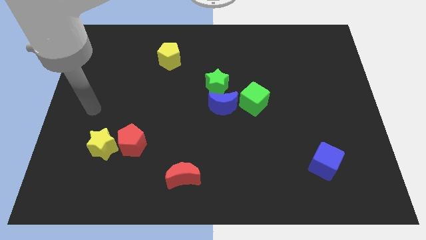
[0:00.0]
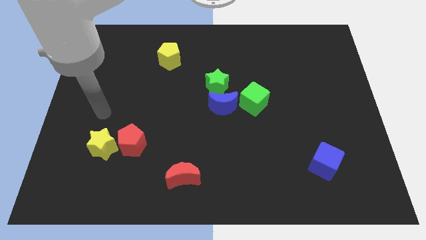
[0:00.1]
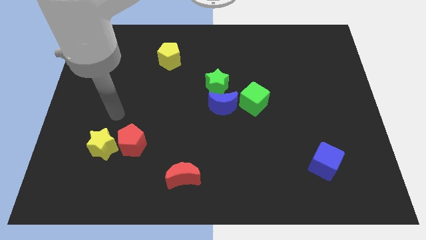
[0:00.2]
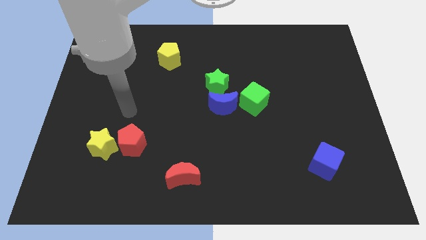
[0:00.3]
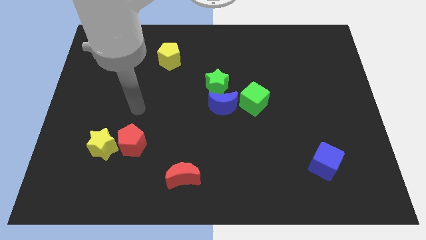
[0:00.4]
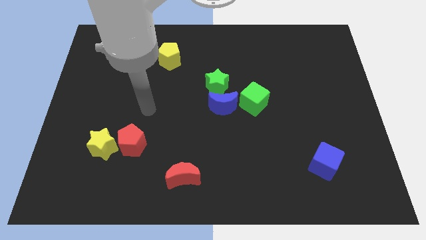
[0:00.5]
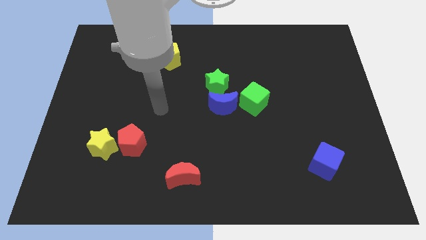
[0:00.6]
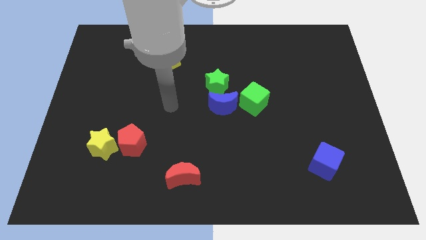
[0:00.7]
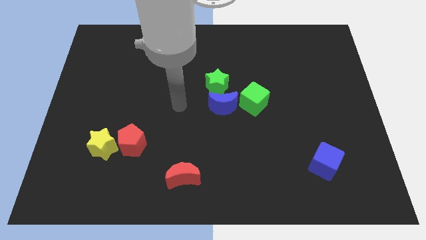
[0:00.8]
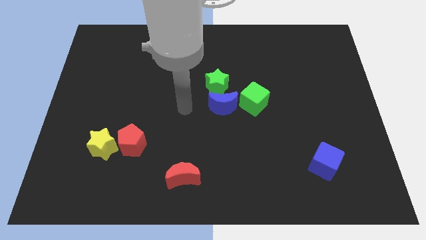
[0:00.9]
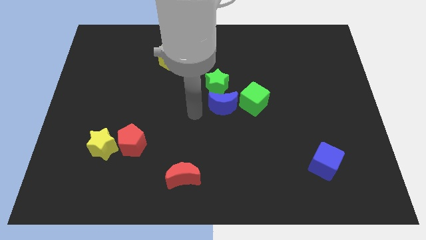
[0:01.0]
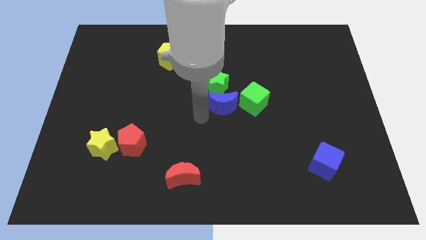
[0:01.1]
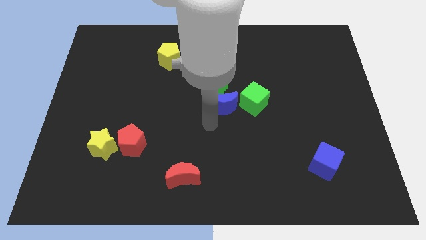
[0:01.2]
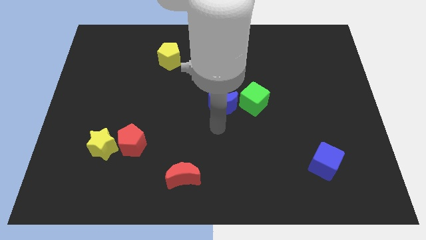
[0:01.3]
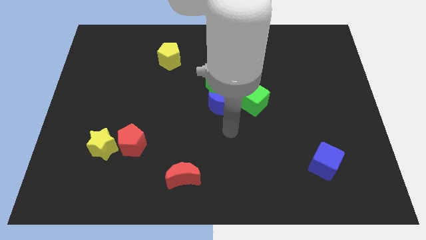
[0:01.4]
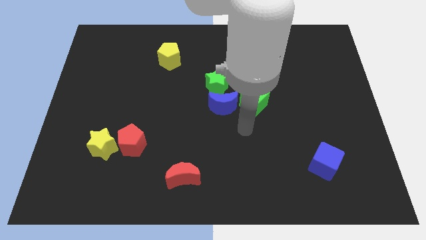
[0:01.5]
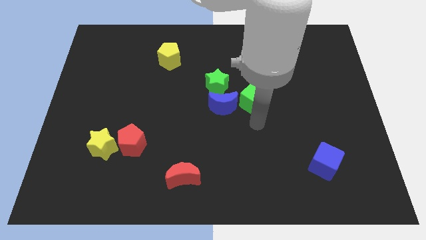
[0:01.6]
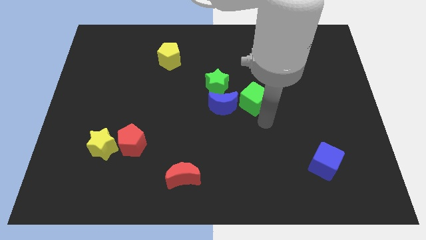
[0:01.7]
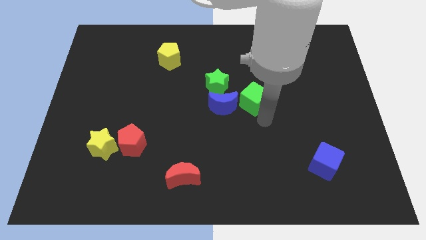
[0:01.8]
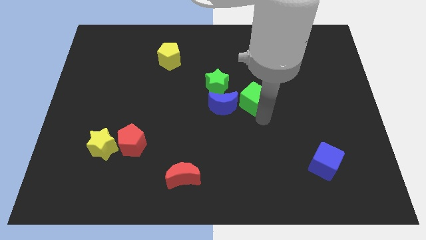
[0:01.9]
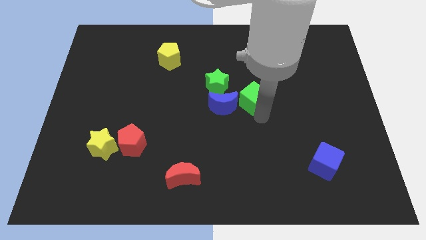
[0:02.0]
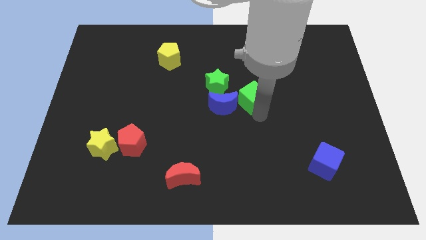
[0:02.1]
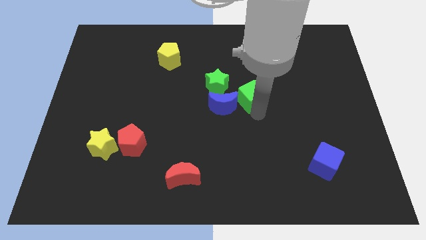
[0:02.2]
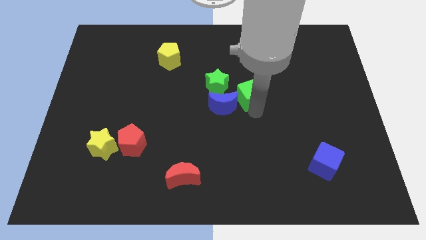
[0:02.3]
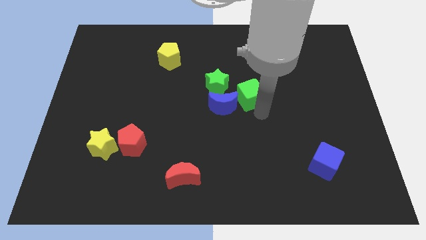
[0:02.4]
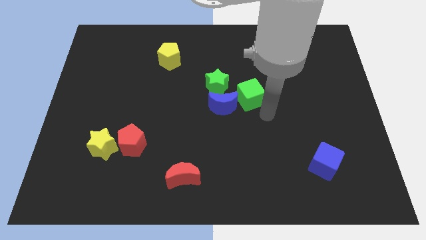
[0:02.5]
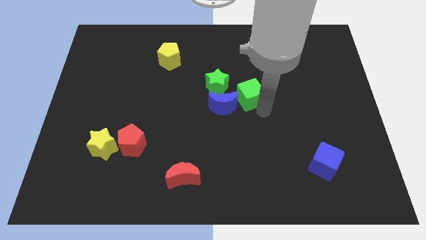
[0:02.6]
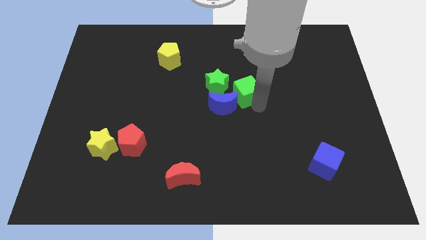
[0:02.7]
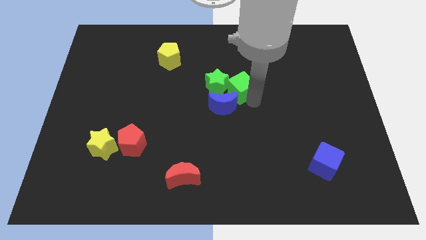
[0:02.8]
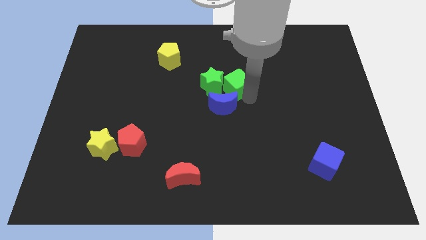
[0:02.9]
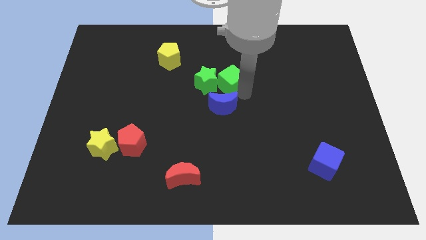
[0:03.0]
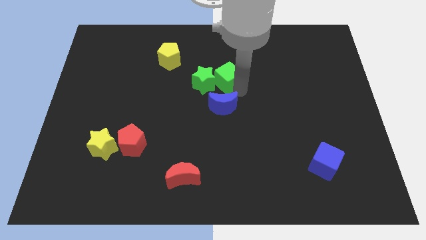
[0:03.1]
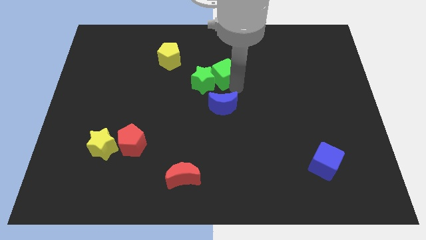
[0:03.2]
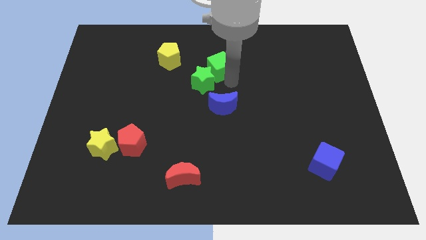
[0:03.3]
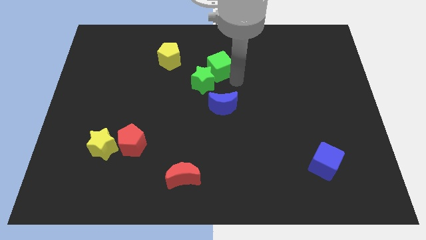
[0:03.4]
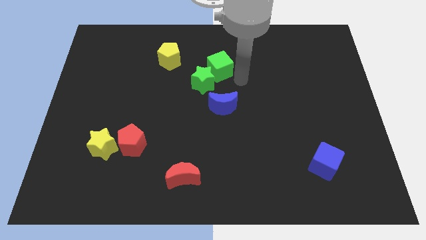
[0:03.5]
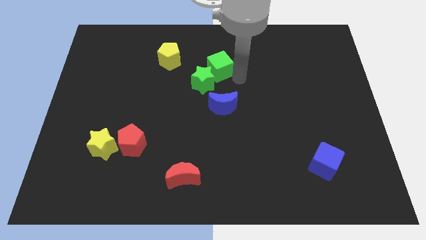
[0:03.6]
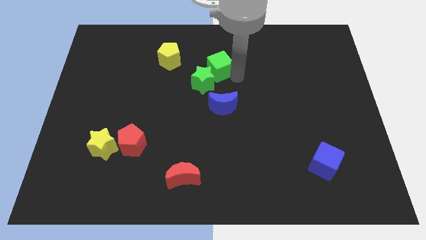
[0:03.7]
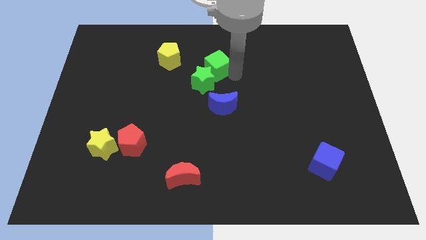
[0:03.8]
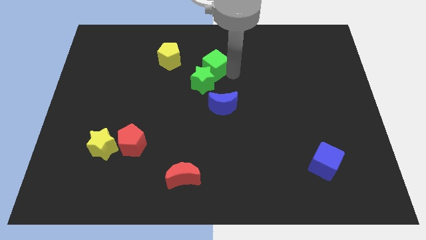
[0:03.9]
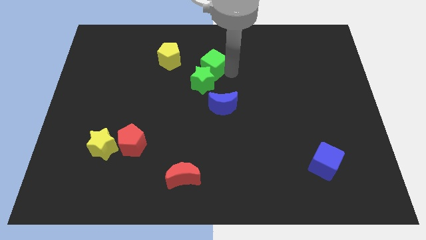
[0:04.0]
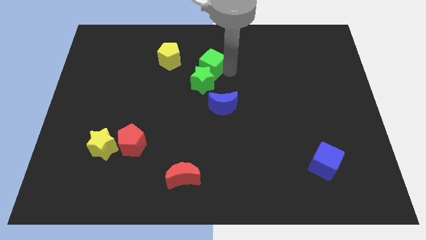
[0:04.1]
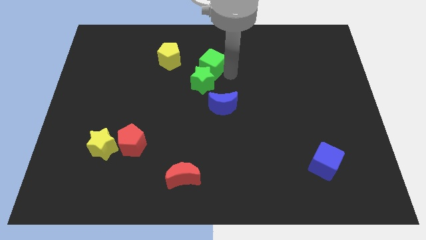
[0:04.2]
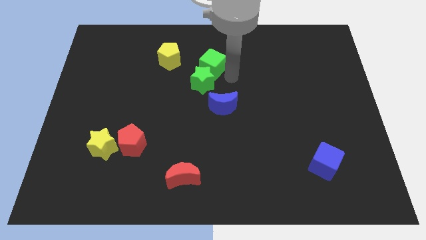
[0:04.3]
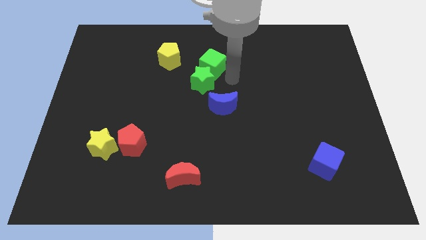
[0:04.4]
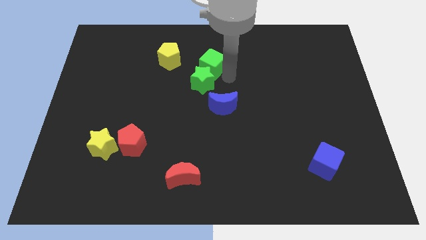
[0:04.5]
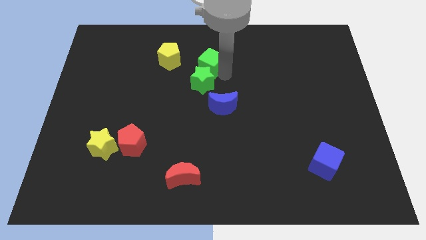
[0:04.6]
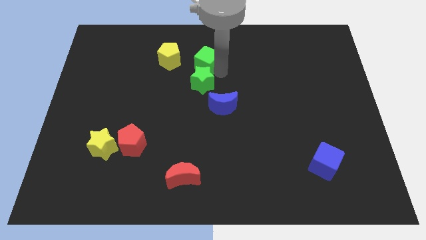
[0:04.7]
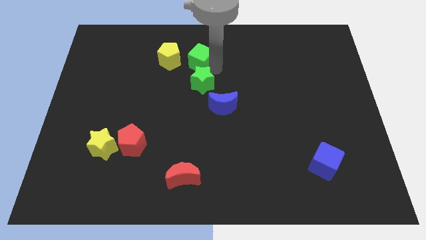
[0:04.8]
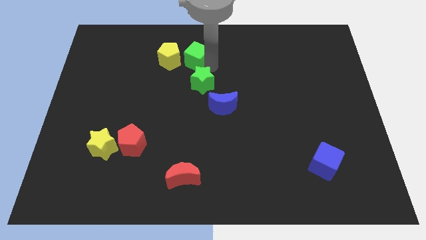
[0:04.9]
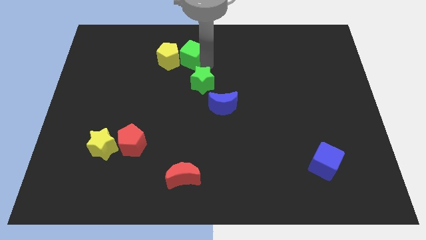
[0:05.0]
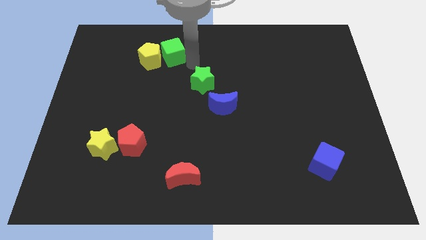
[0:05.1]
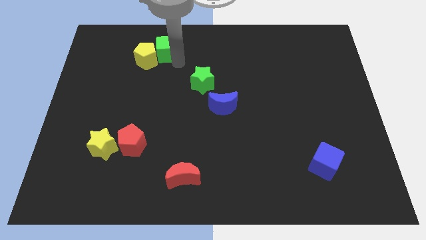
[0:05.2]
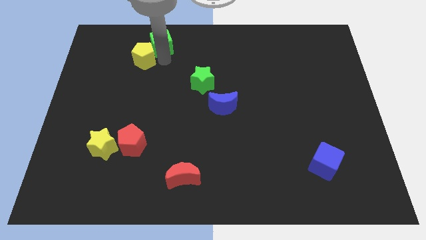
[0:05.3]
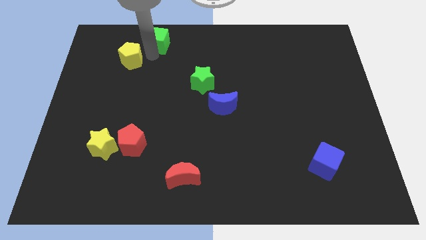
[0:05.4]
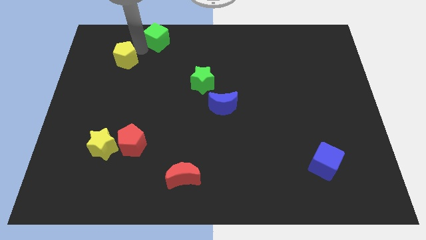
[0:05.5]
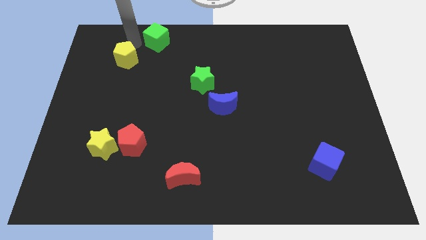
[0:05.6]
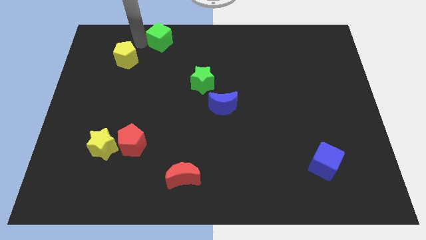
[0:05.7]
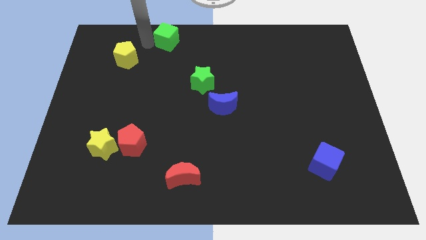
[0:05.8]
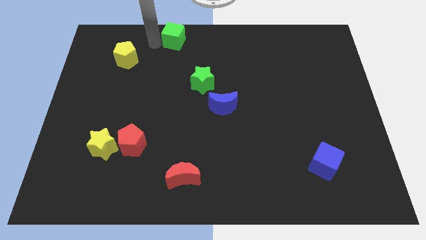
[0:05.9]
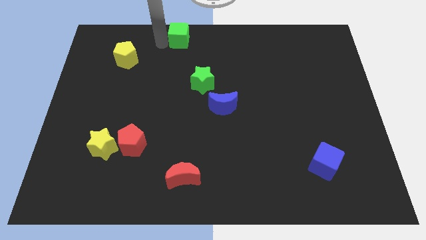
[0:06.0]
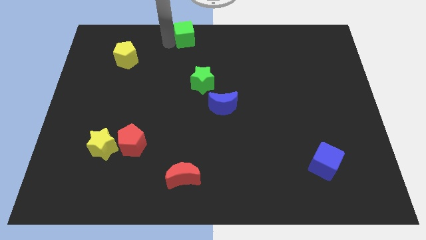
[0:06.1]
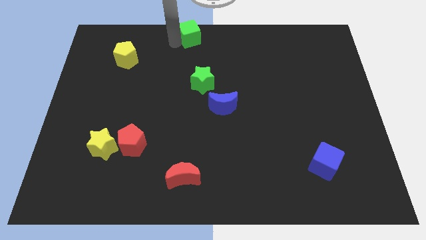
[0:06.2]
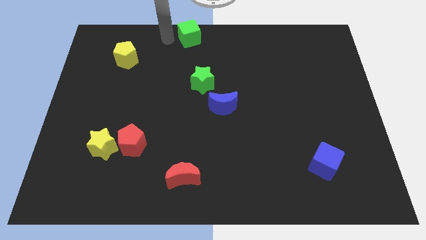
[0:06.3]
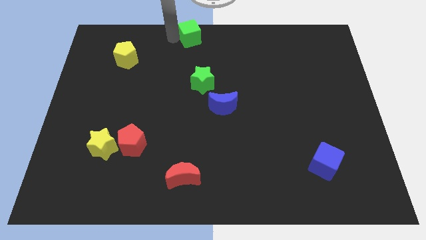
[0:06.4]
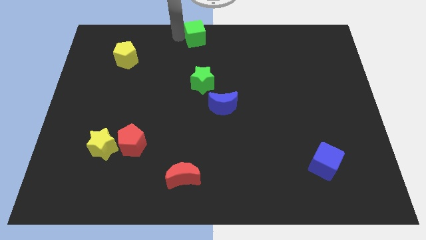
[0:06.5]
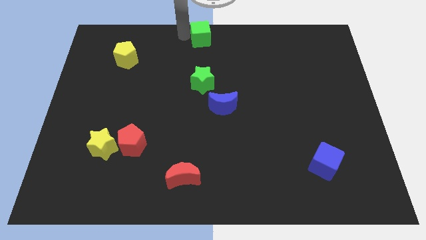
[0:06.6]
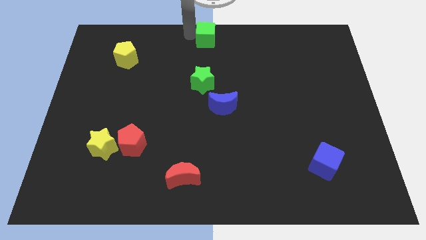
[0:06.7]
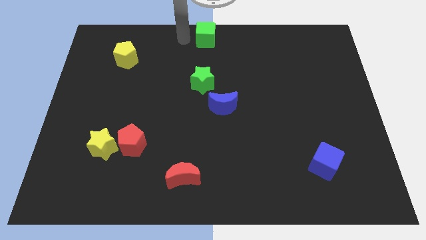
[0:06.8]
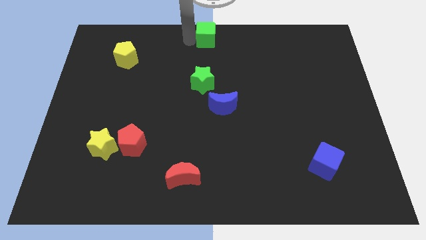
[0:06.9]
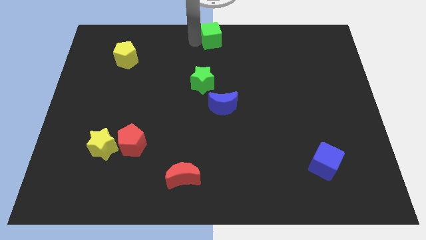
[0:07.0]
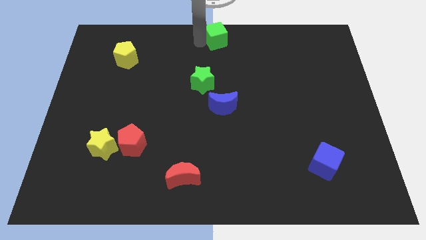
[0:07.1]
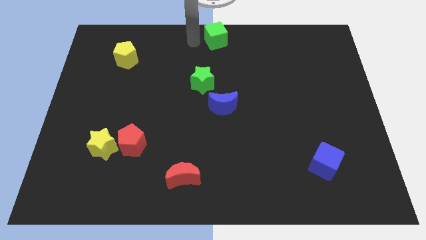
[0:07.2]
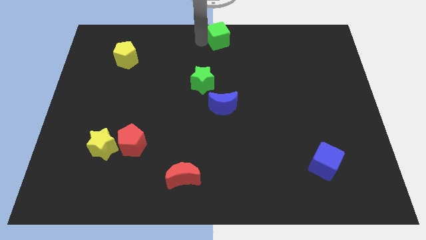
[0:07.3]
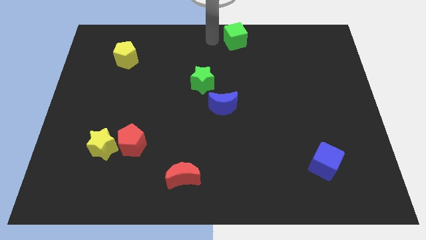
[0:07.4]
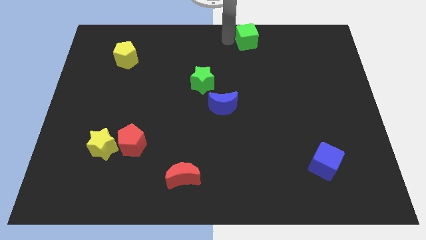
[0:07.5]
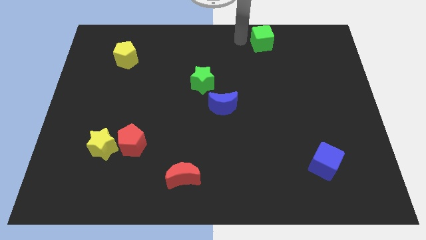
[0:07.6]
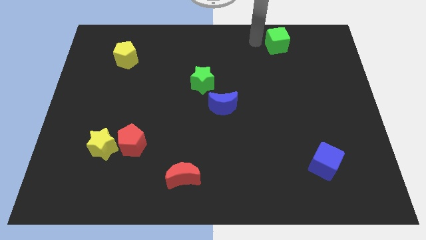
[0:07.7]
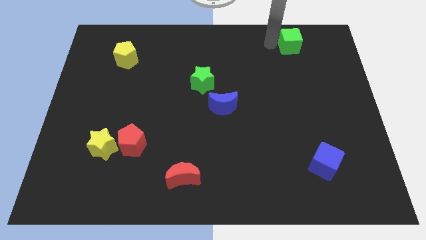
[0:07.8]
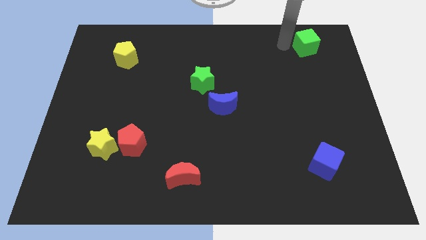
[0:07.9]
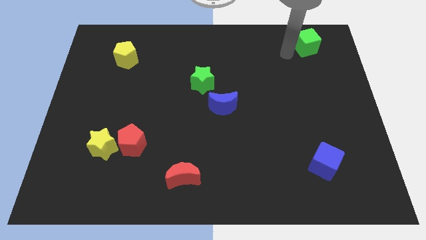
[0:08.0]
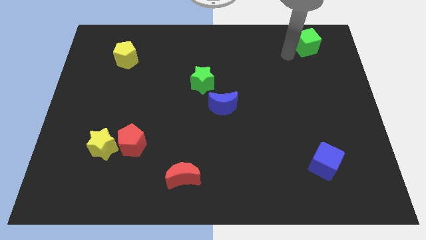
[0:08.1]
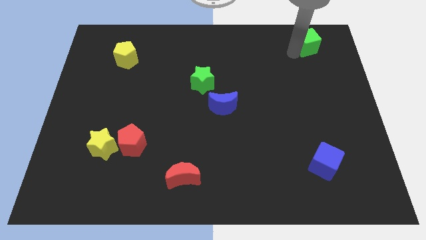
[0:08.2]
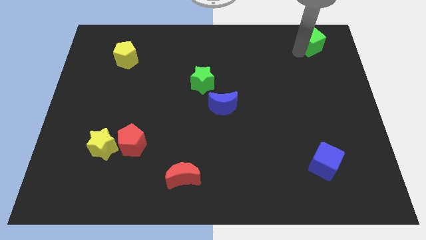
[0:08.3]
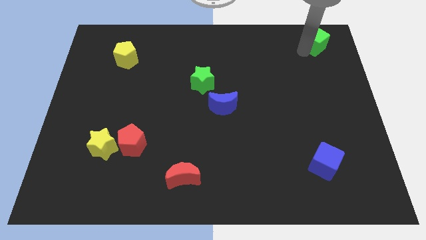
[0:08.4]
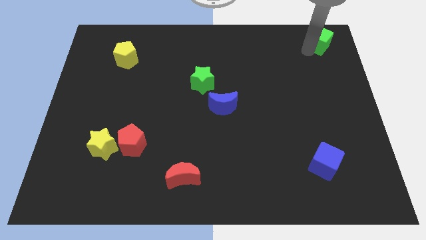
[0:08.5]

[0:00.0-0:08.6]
put the green cube to the top right of the board
